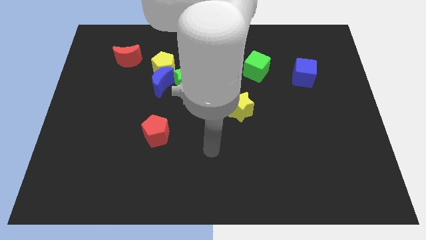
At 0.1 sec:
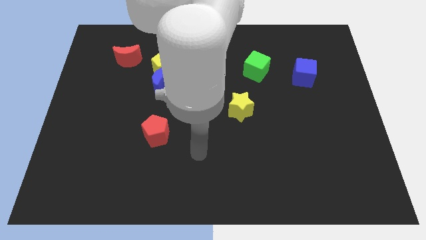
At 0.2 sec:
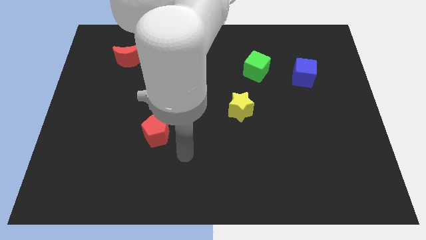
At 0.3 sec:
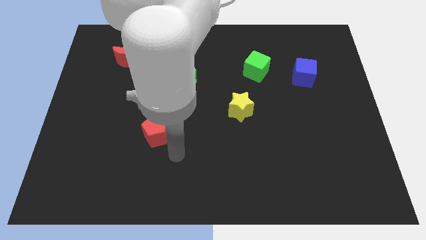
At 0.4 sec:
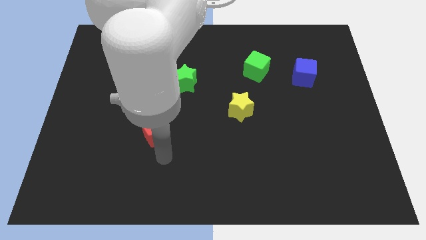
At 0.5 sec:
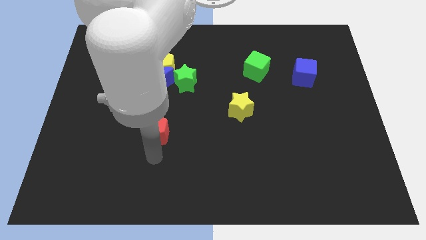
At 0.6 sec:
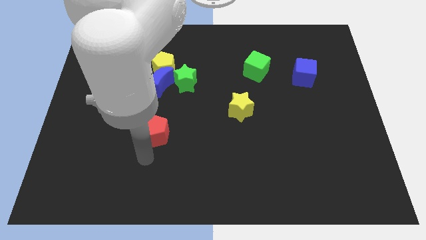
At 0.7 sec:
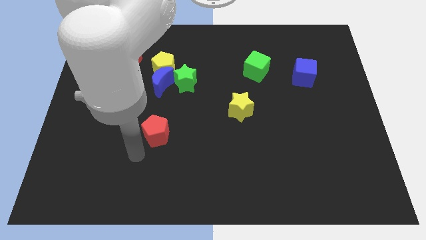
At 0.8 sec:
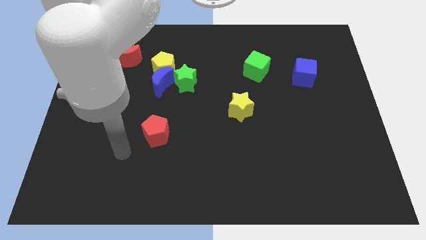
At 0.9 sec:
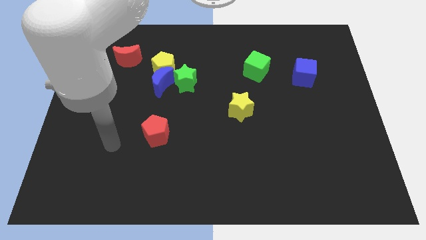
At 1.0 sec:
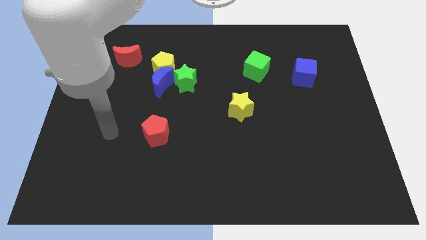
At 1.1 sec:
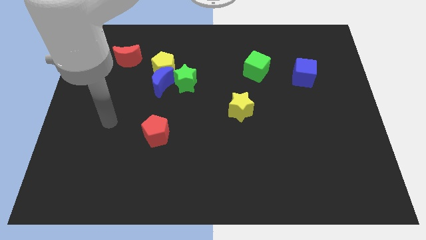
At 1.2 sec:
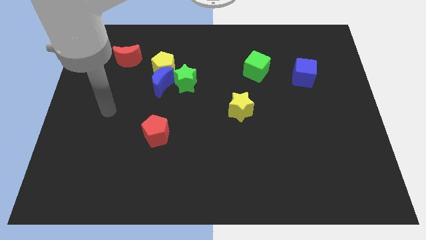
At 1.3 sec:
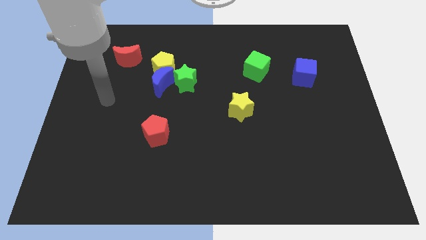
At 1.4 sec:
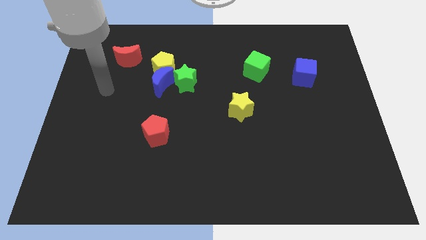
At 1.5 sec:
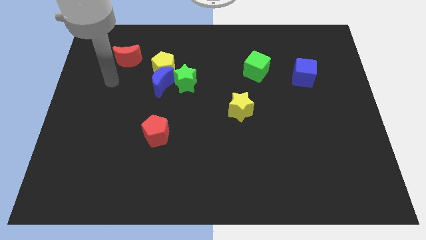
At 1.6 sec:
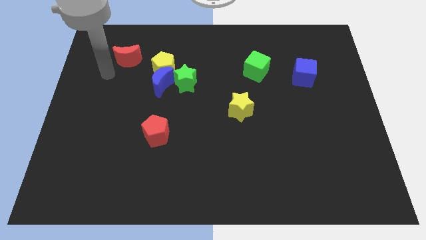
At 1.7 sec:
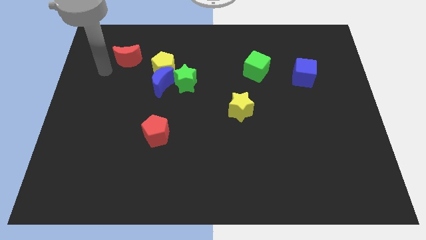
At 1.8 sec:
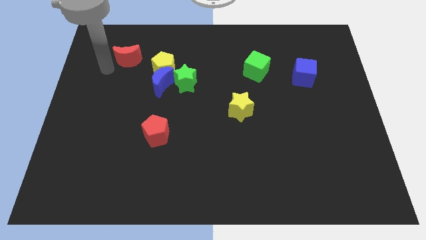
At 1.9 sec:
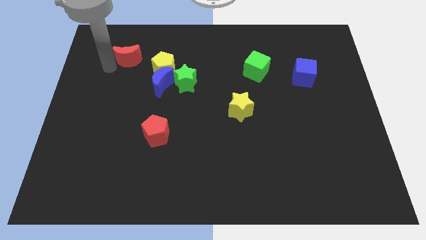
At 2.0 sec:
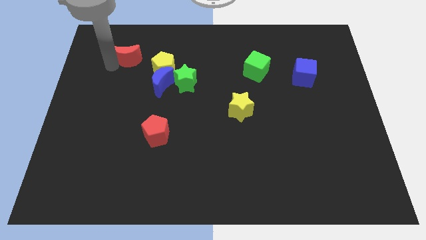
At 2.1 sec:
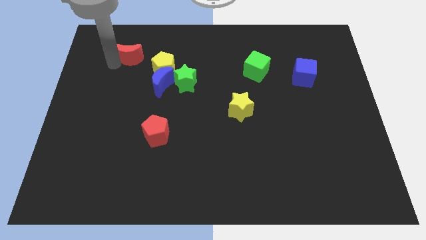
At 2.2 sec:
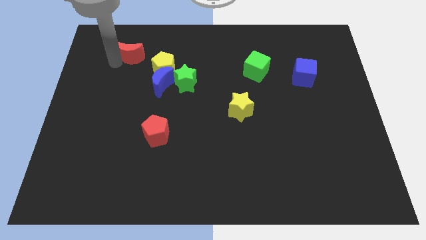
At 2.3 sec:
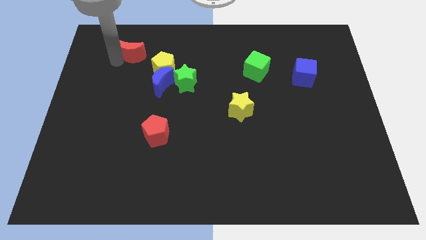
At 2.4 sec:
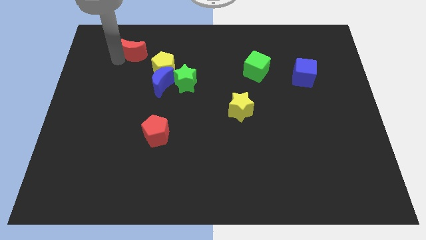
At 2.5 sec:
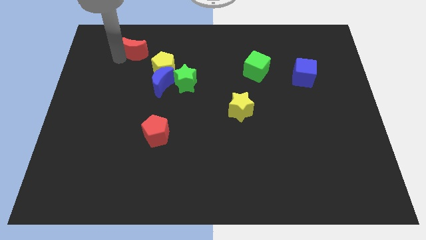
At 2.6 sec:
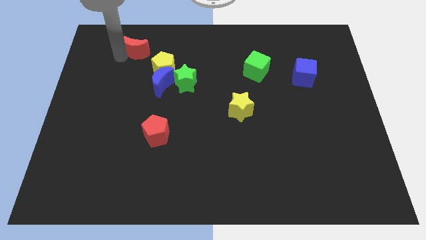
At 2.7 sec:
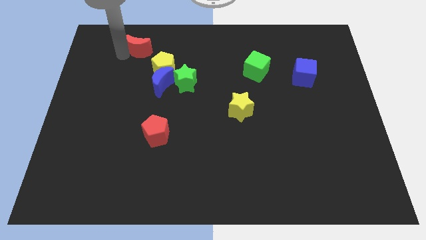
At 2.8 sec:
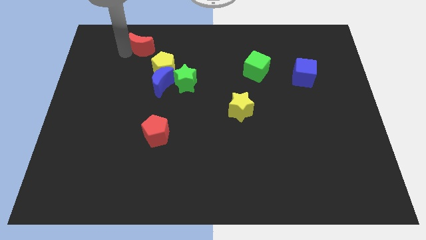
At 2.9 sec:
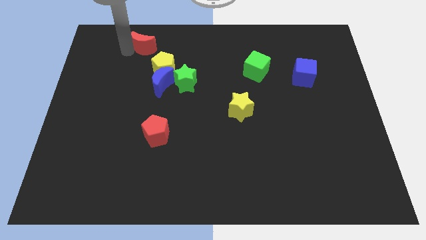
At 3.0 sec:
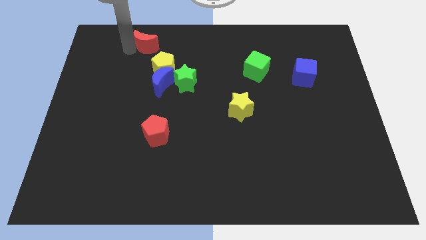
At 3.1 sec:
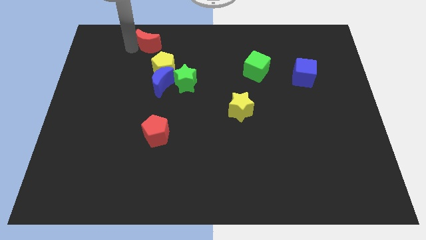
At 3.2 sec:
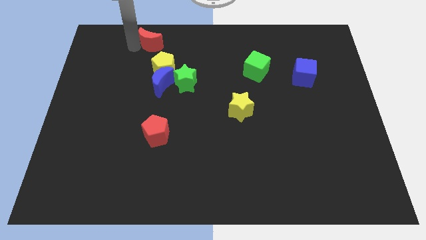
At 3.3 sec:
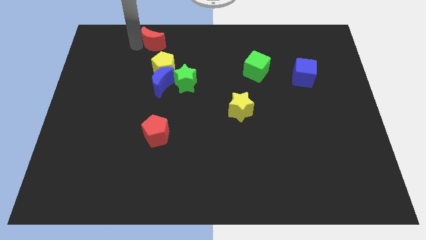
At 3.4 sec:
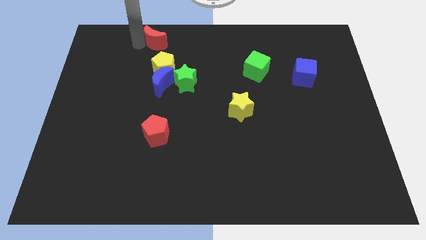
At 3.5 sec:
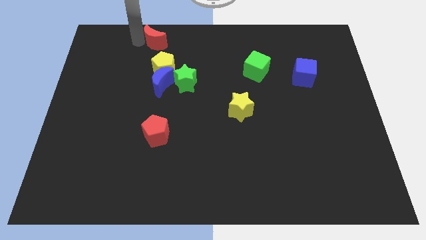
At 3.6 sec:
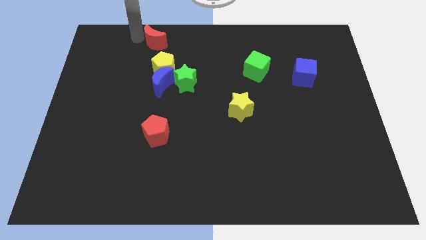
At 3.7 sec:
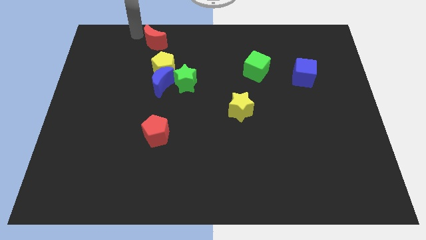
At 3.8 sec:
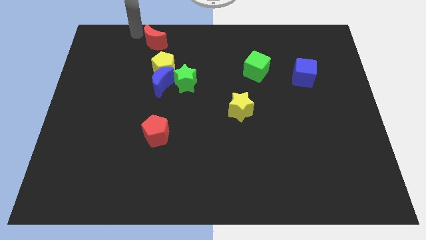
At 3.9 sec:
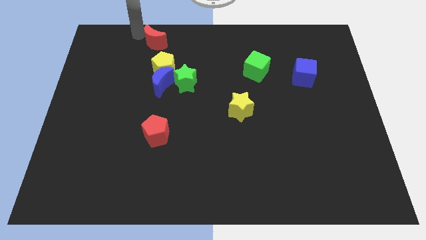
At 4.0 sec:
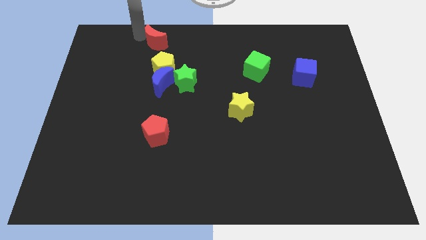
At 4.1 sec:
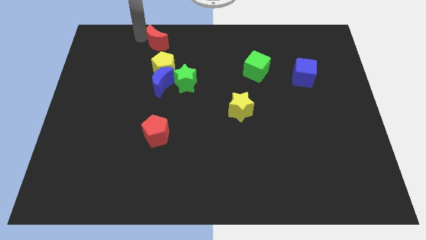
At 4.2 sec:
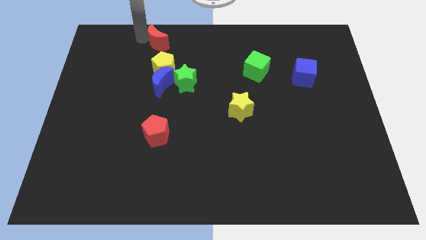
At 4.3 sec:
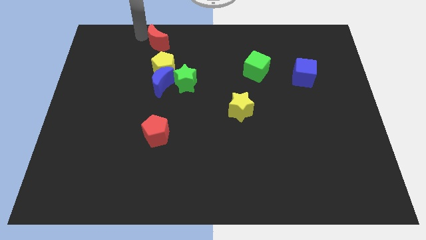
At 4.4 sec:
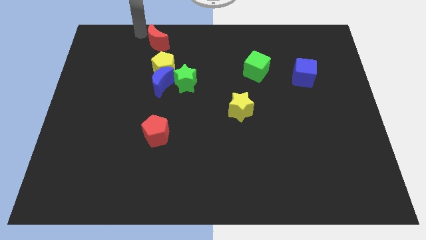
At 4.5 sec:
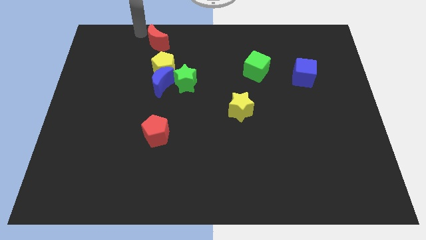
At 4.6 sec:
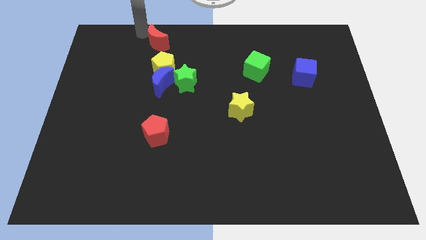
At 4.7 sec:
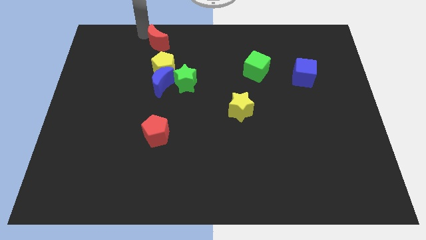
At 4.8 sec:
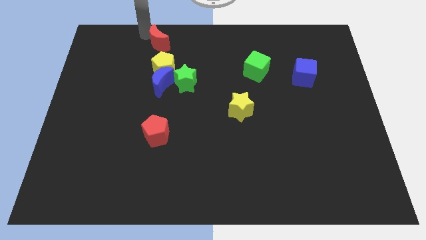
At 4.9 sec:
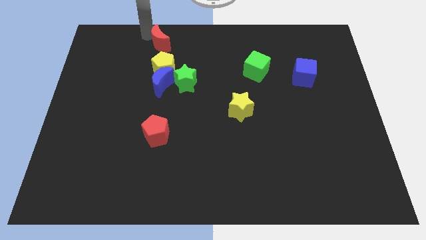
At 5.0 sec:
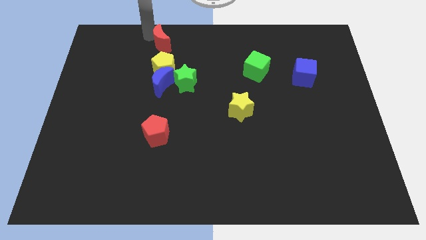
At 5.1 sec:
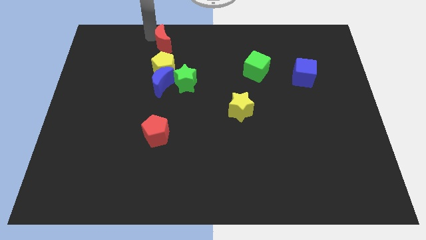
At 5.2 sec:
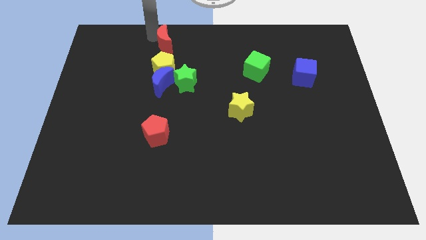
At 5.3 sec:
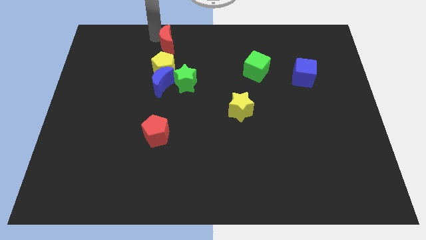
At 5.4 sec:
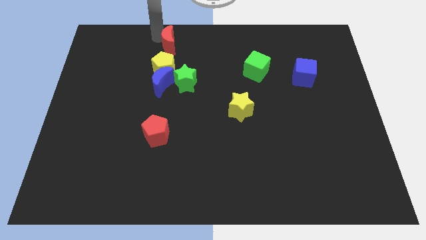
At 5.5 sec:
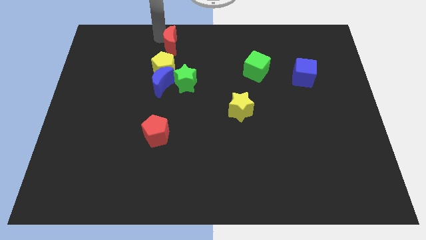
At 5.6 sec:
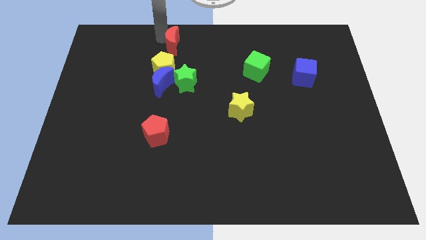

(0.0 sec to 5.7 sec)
put the red moon to the towards your base

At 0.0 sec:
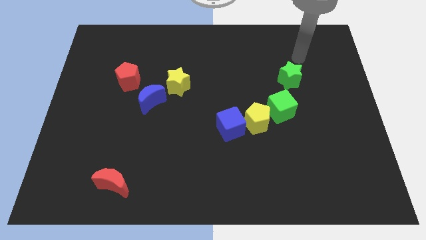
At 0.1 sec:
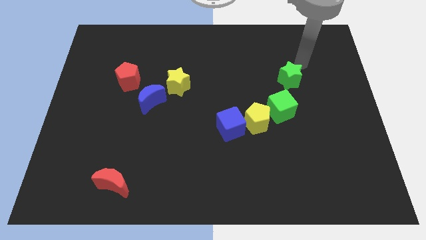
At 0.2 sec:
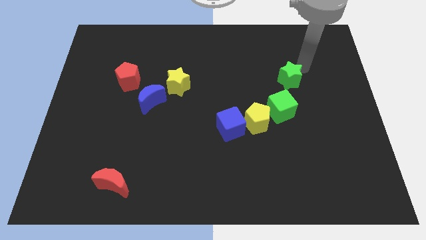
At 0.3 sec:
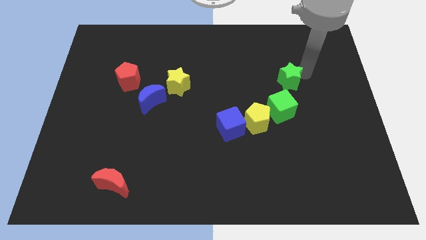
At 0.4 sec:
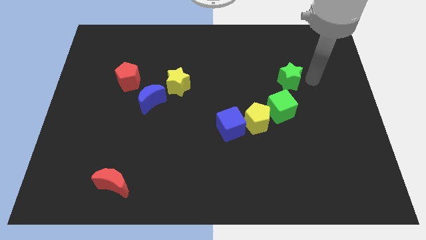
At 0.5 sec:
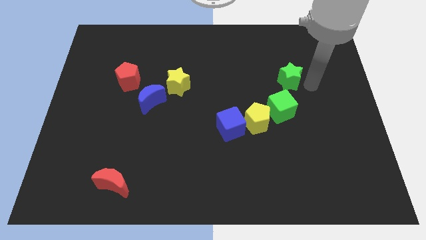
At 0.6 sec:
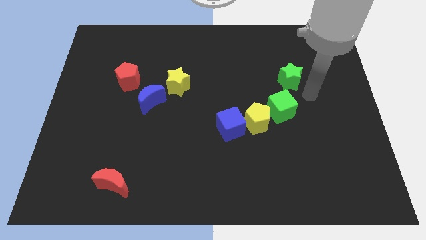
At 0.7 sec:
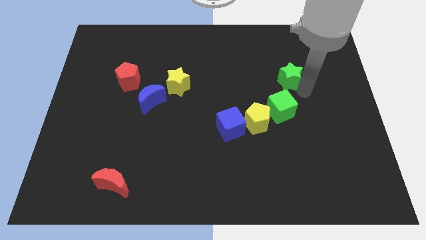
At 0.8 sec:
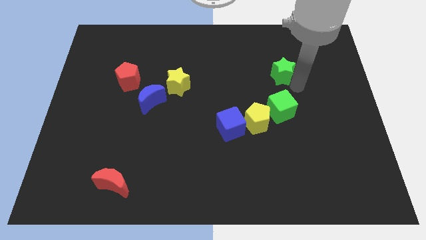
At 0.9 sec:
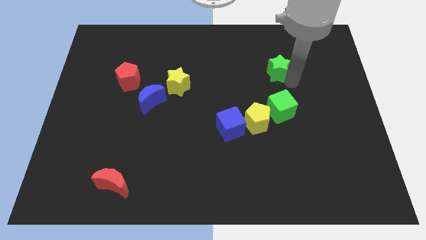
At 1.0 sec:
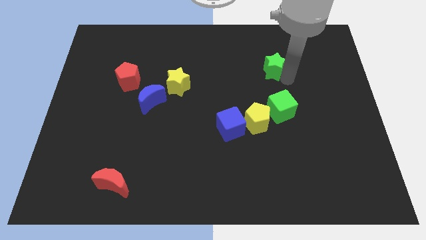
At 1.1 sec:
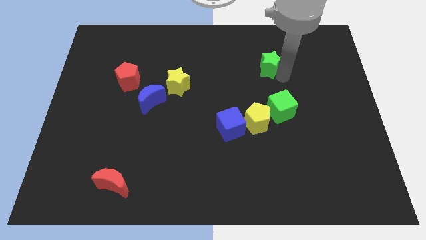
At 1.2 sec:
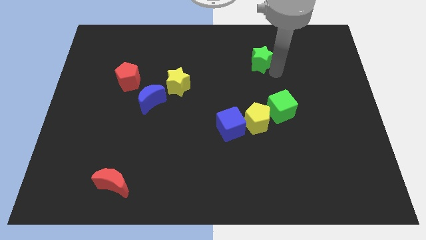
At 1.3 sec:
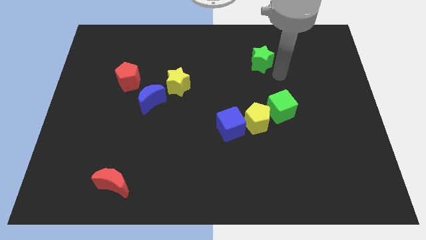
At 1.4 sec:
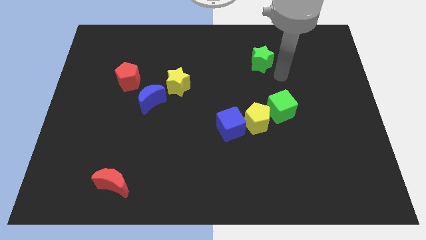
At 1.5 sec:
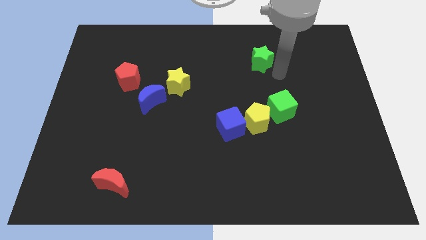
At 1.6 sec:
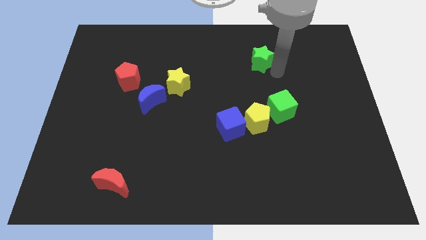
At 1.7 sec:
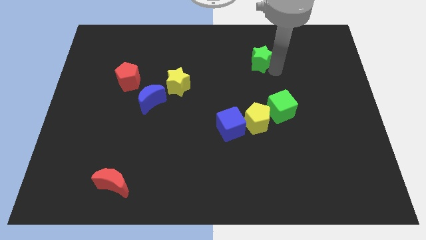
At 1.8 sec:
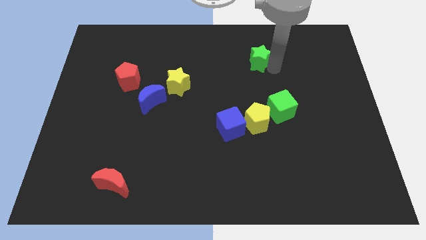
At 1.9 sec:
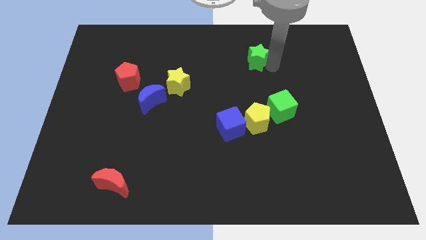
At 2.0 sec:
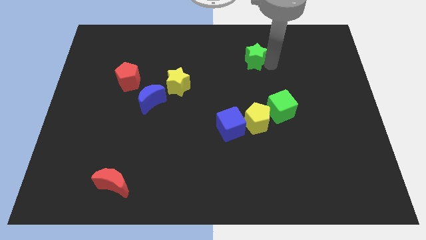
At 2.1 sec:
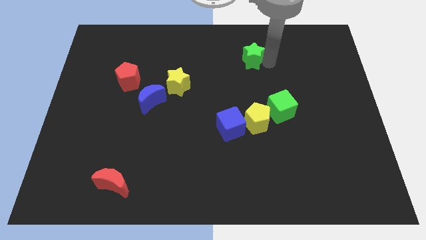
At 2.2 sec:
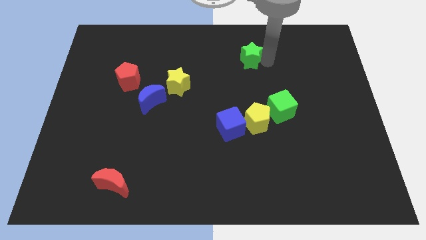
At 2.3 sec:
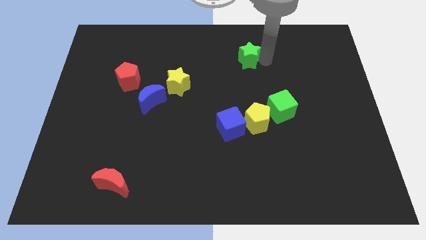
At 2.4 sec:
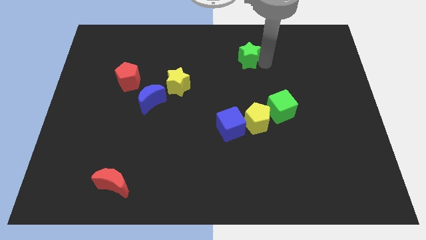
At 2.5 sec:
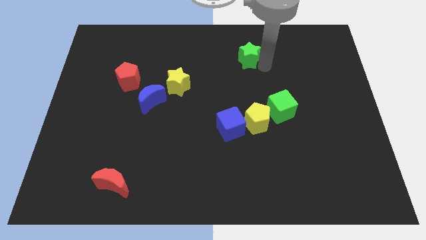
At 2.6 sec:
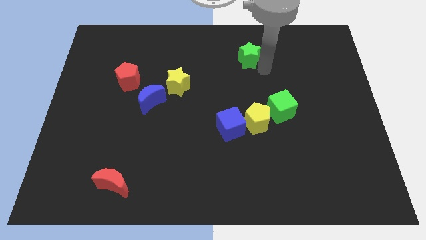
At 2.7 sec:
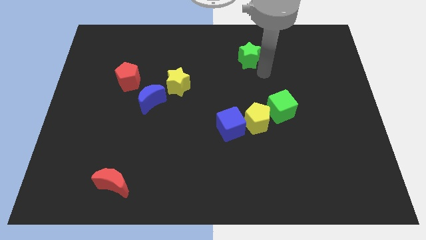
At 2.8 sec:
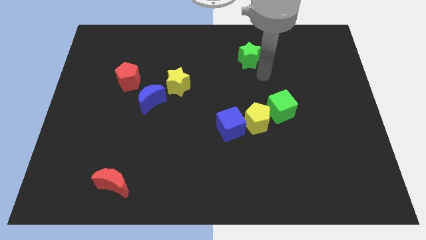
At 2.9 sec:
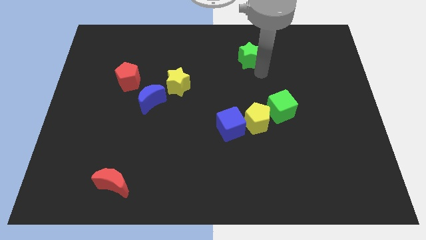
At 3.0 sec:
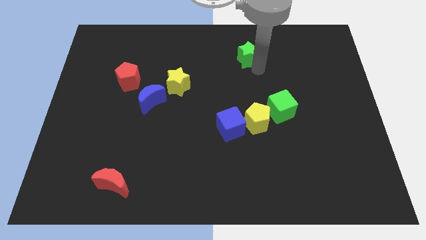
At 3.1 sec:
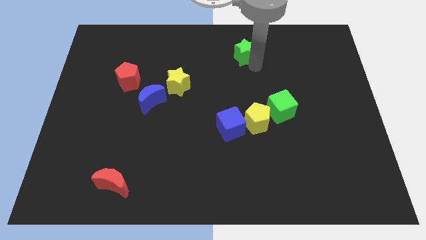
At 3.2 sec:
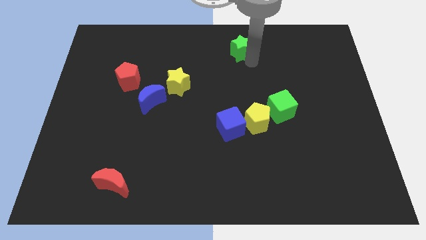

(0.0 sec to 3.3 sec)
put the green star to the top
